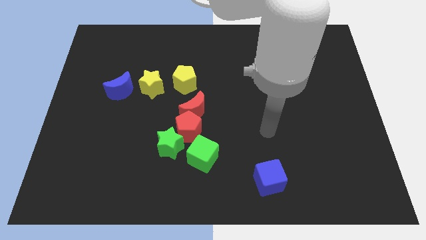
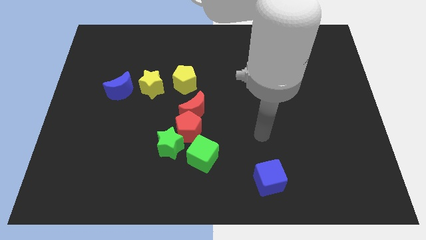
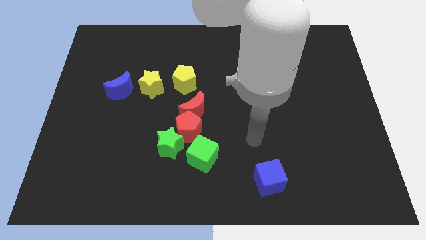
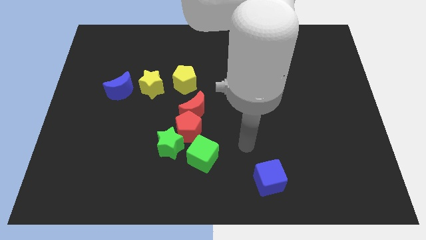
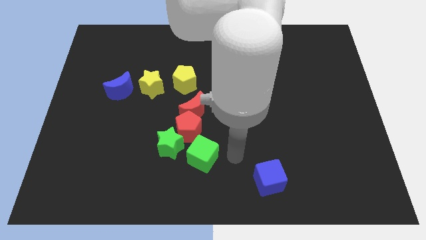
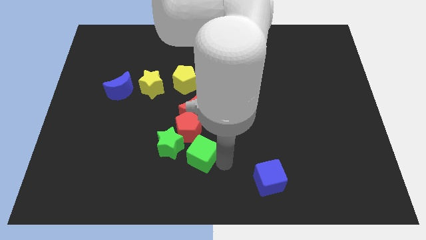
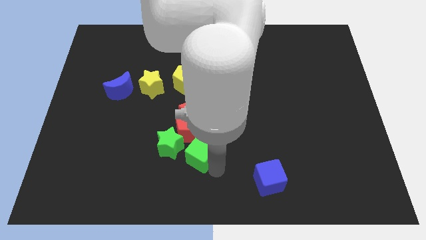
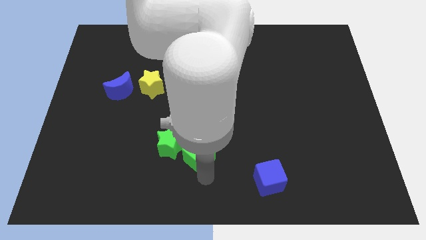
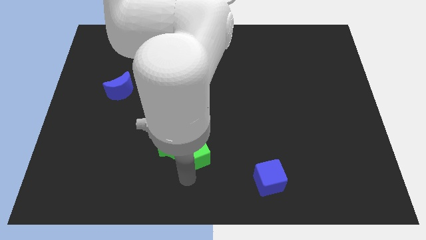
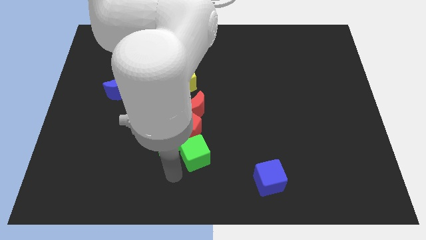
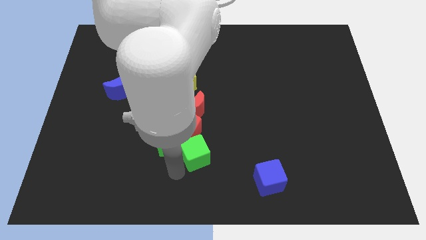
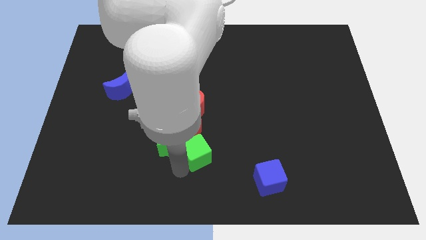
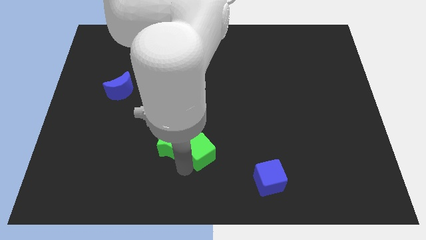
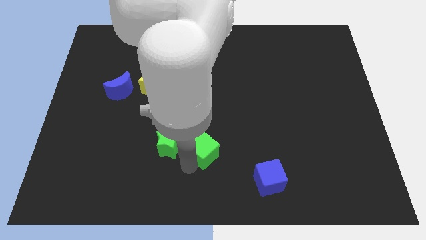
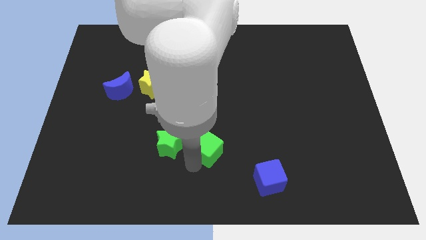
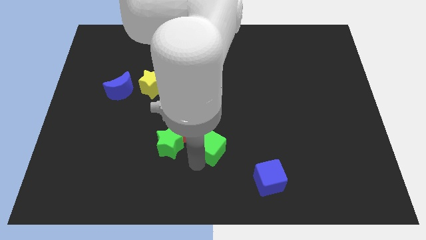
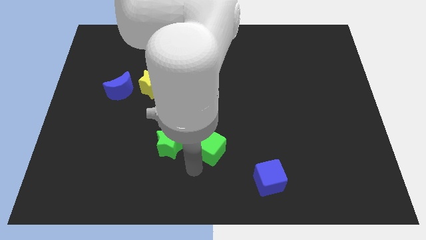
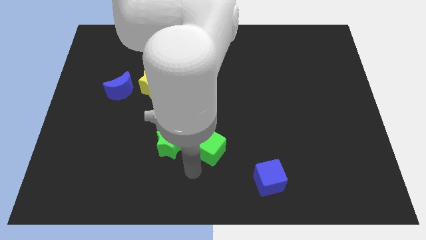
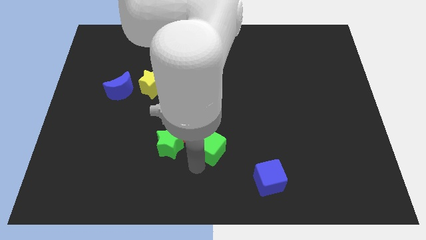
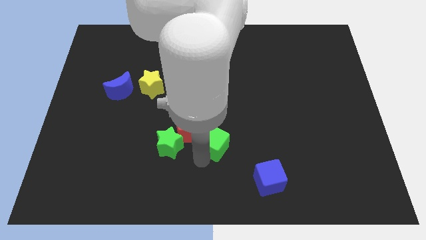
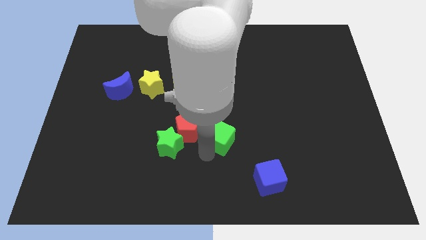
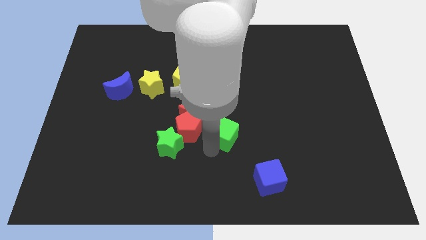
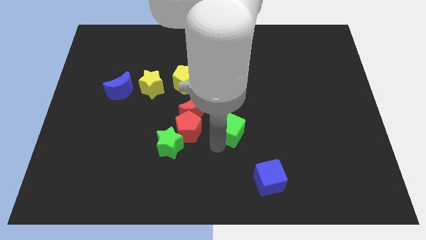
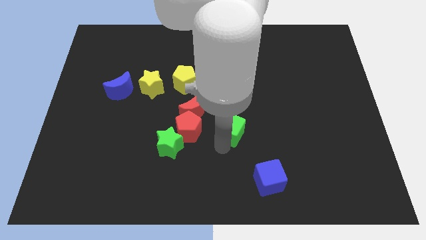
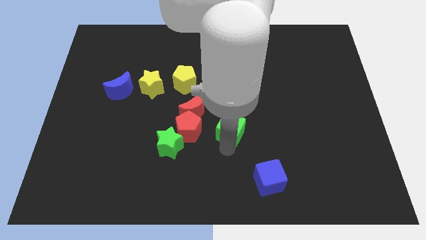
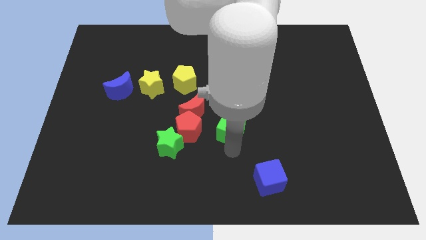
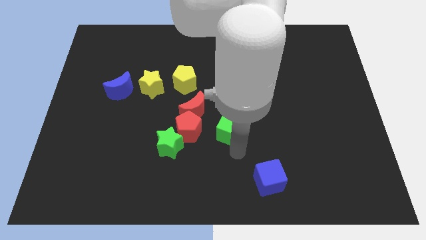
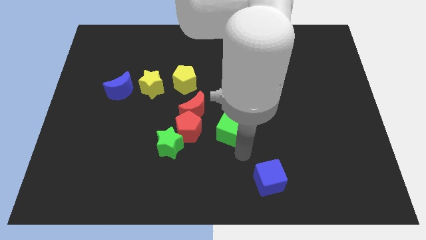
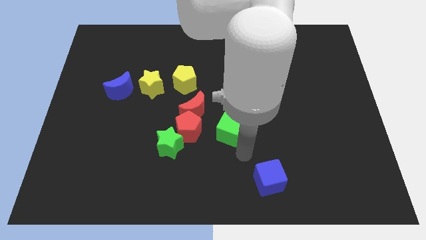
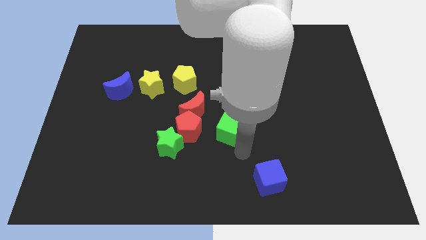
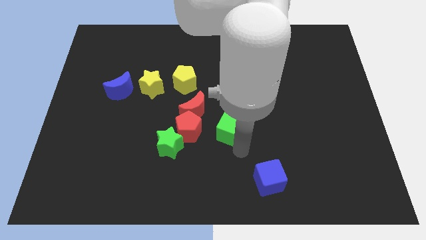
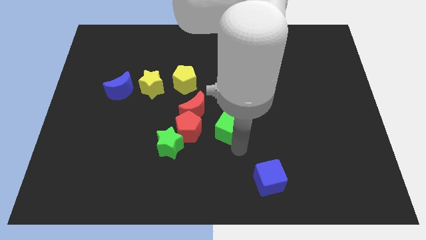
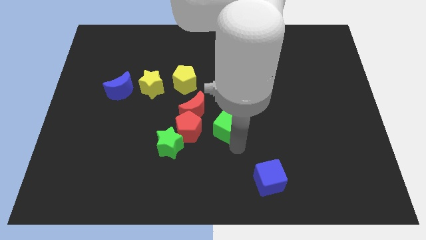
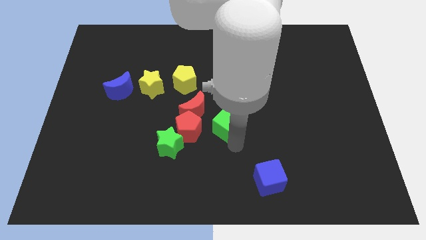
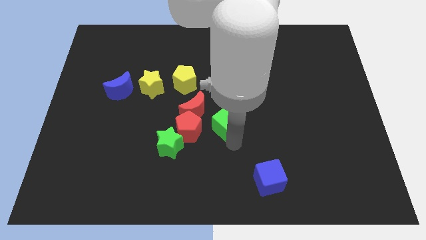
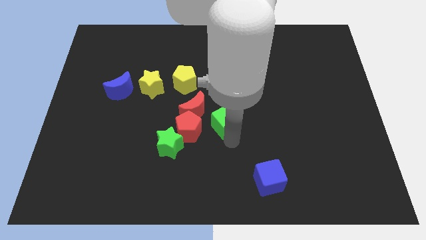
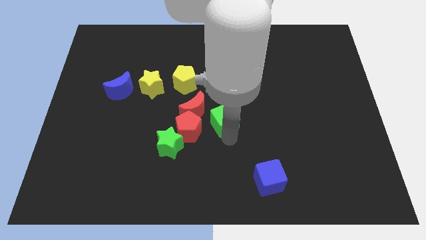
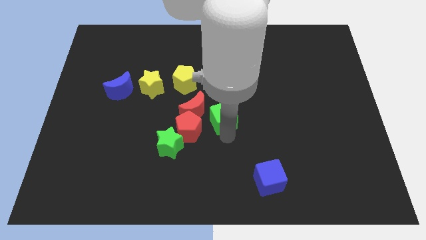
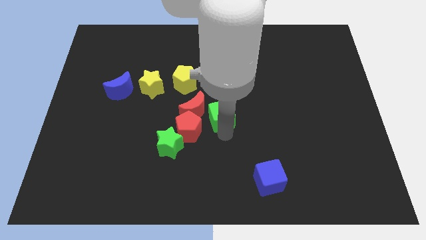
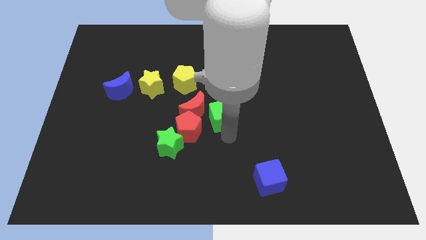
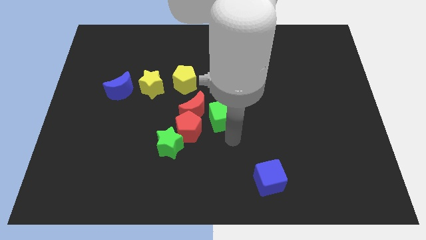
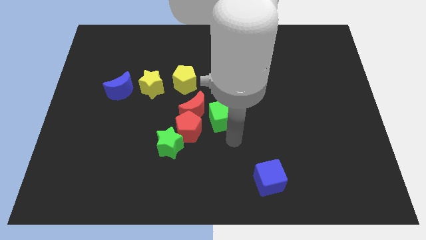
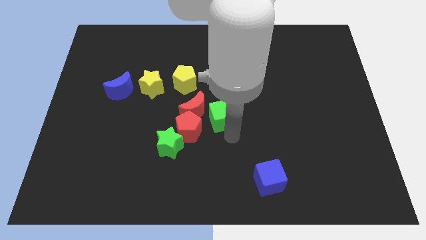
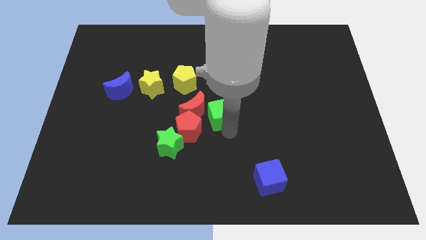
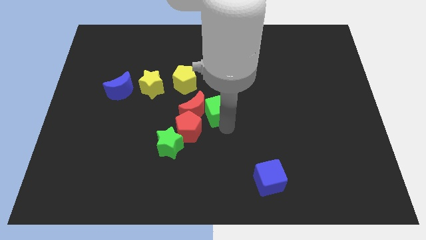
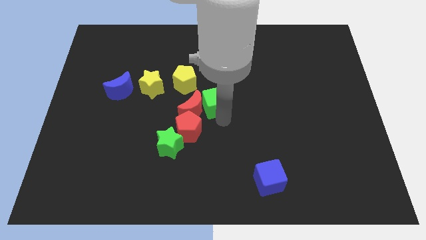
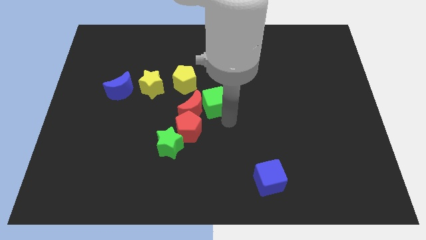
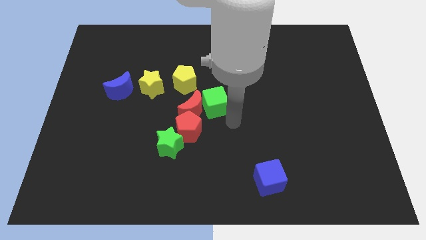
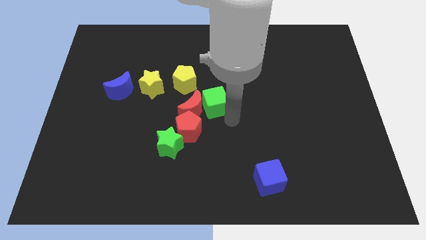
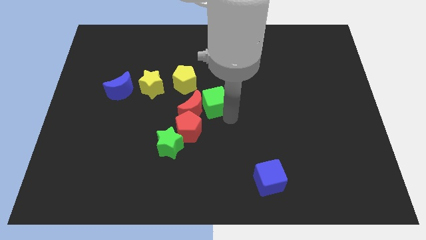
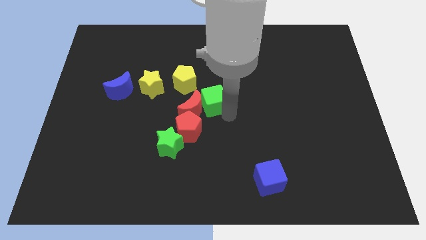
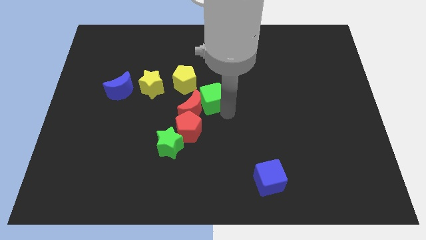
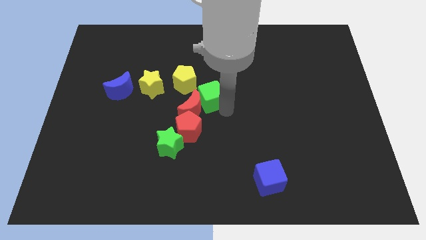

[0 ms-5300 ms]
slide the green cube to the right side of the yellow star

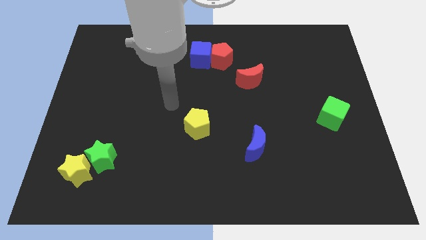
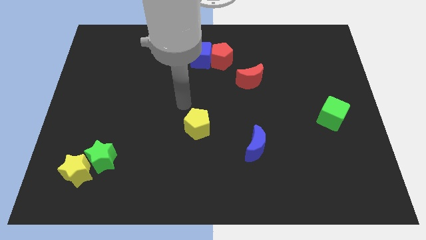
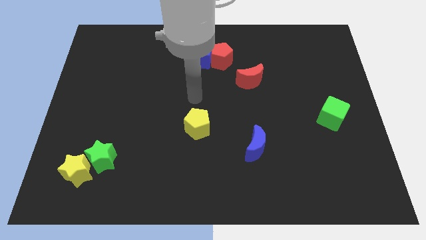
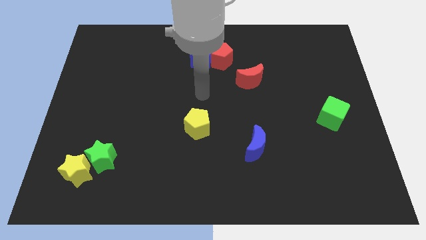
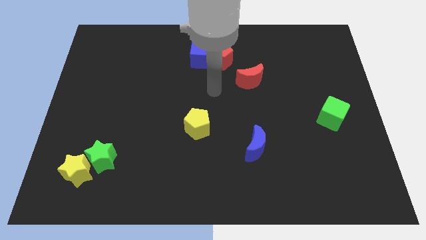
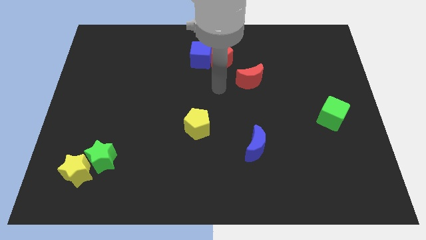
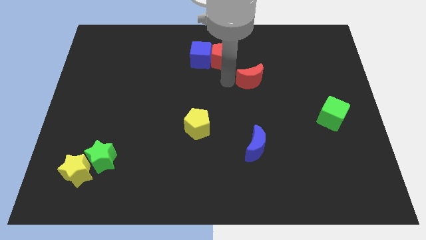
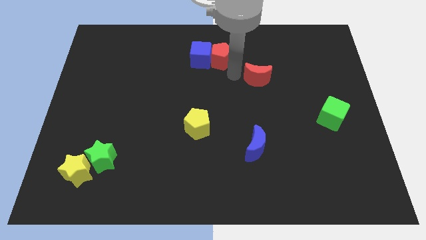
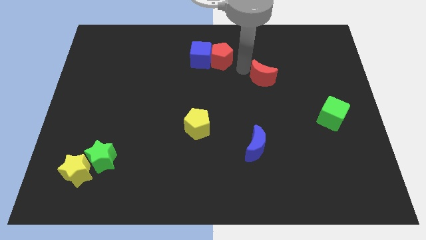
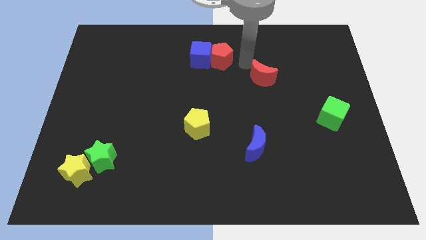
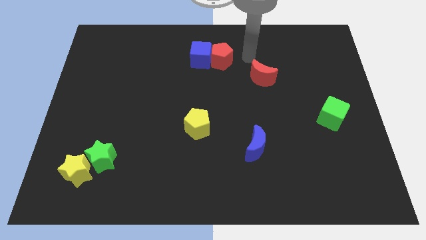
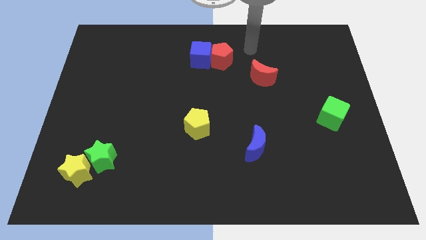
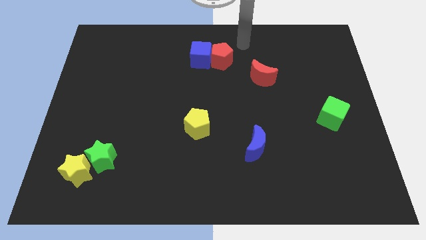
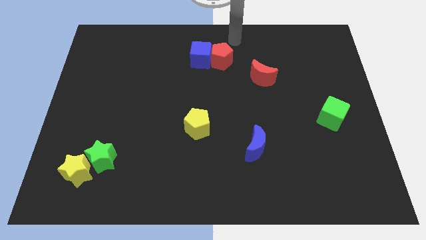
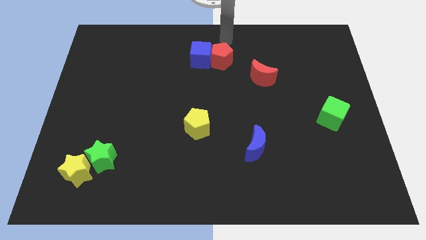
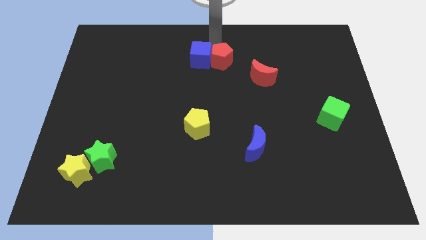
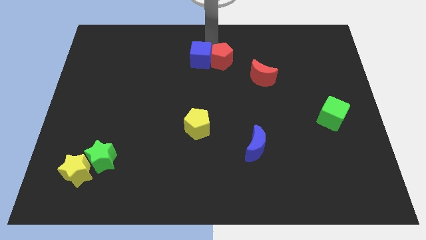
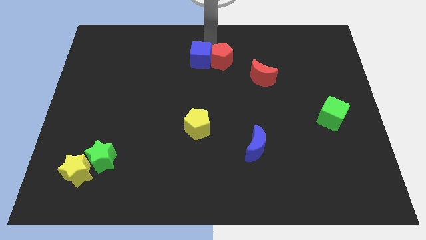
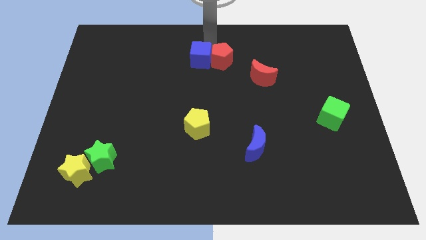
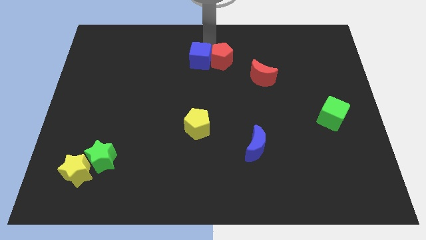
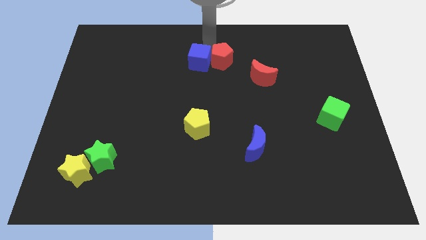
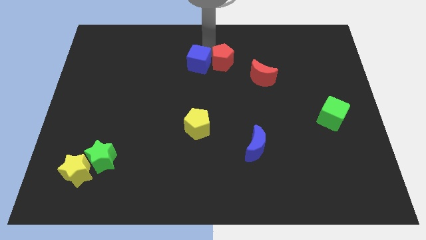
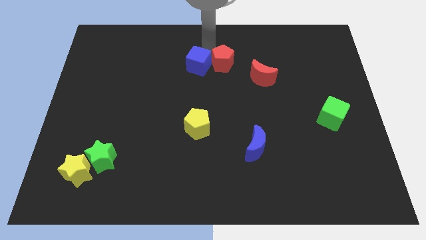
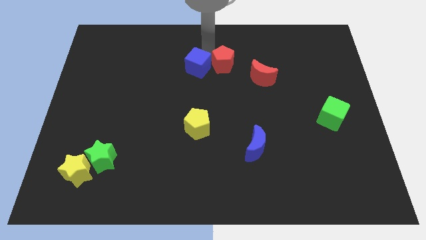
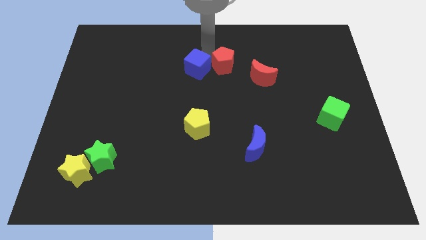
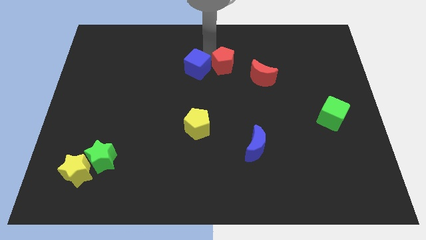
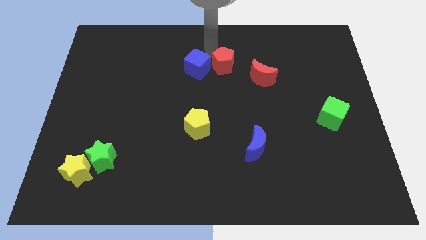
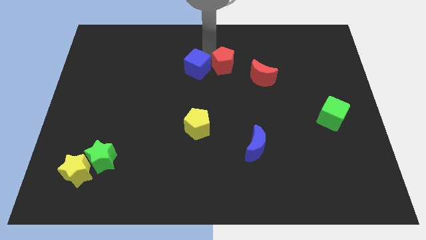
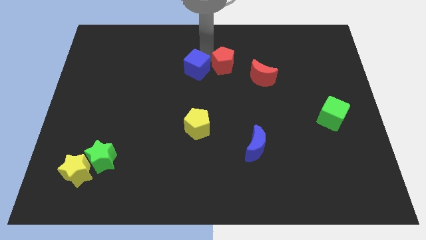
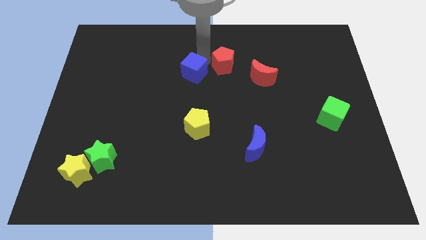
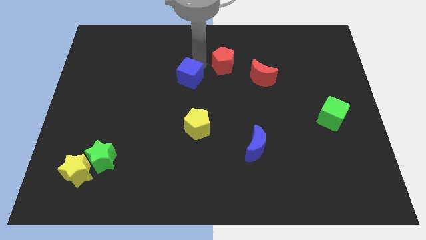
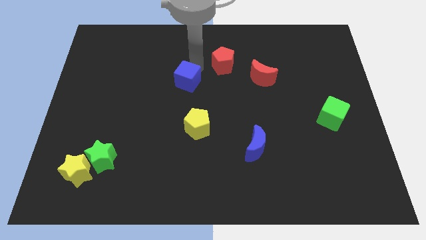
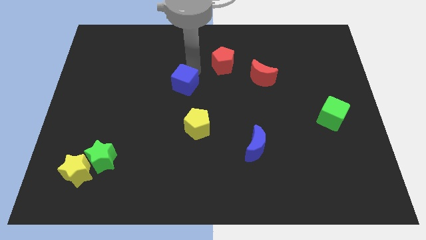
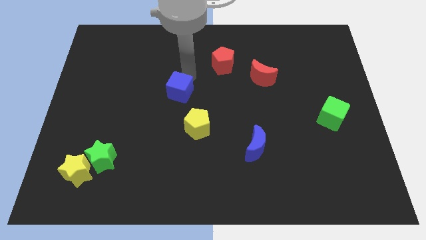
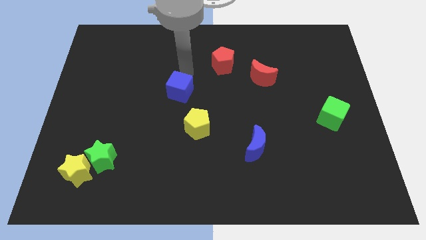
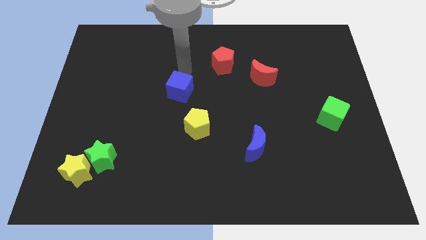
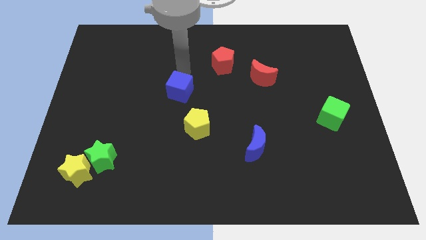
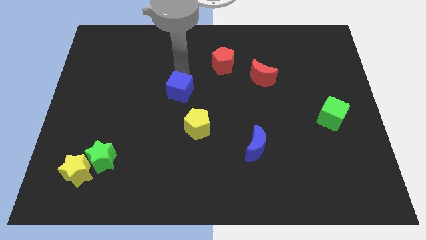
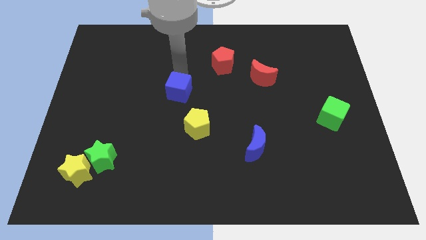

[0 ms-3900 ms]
slide the blue cube to the top left side of the yellow pentagon
